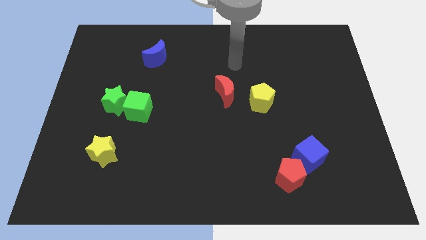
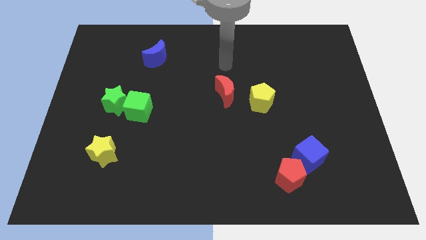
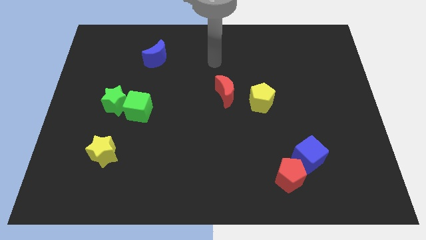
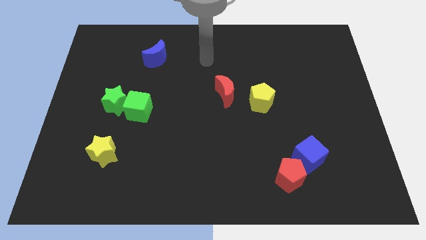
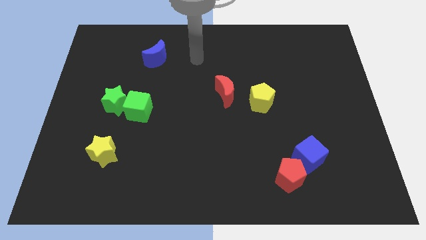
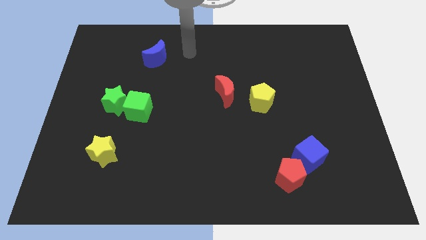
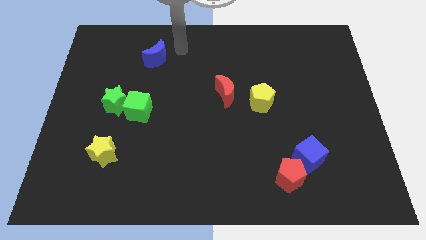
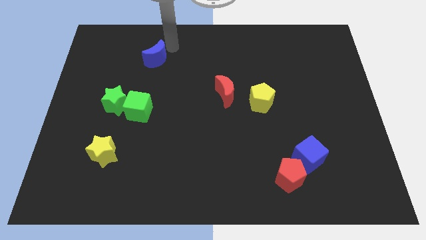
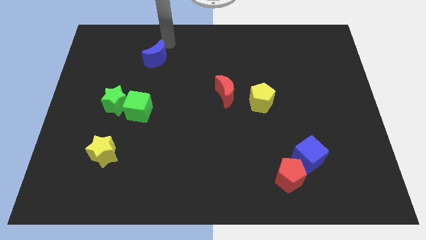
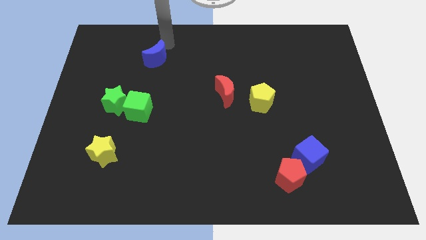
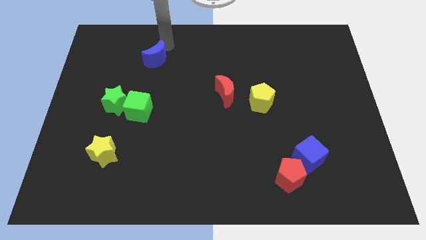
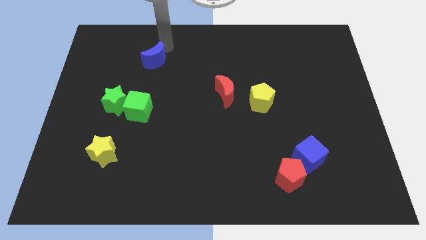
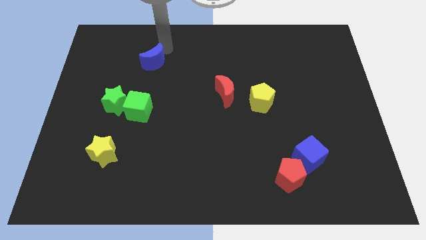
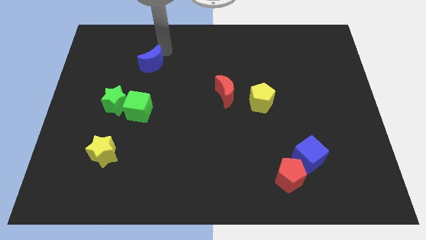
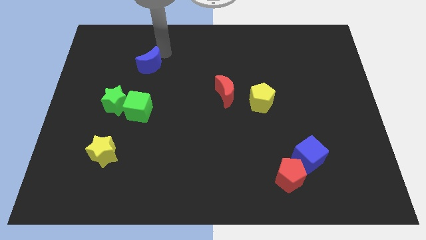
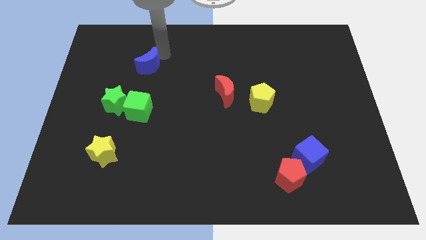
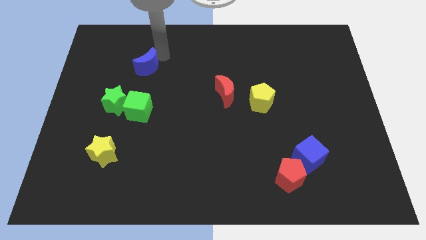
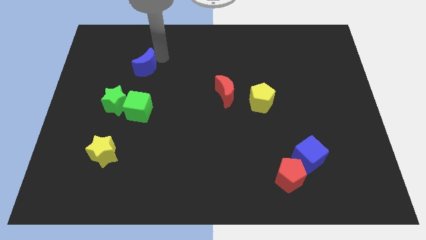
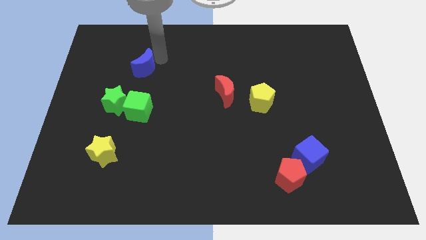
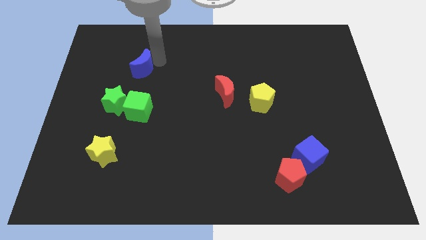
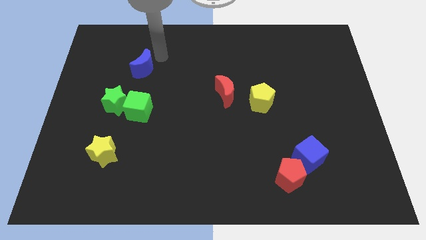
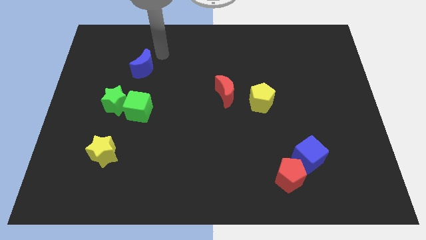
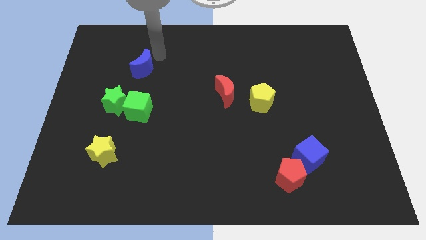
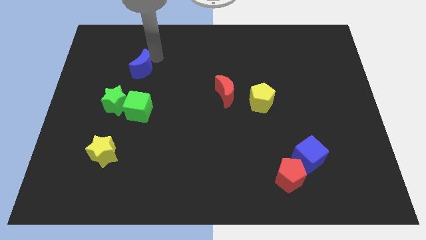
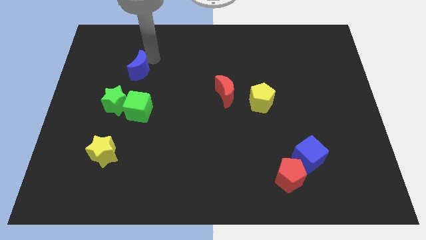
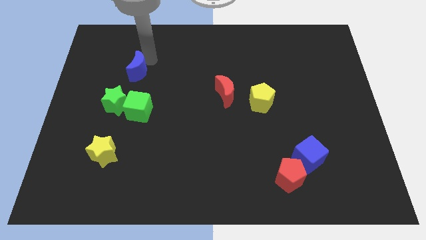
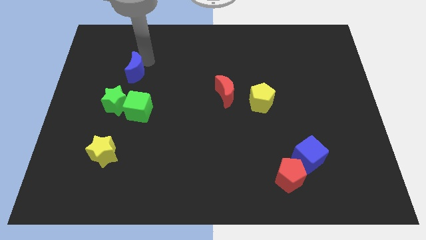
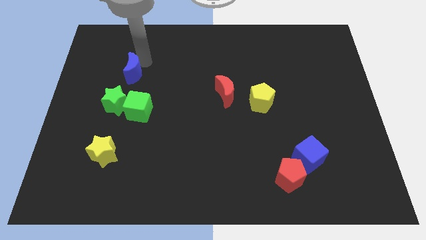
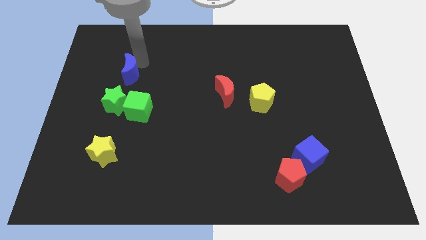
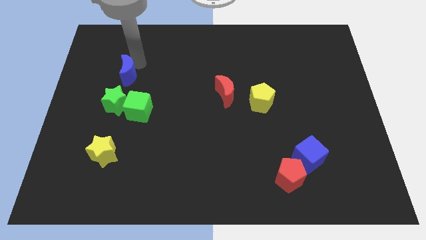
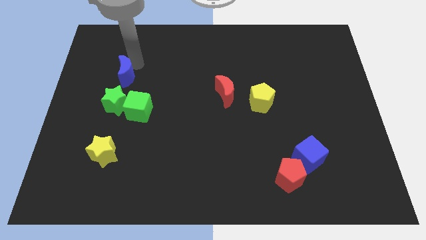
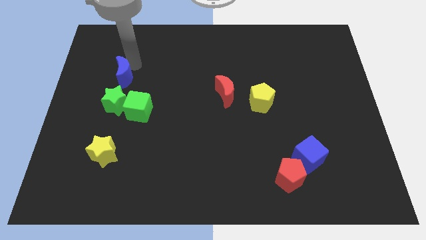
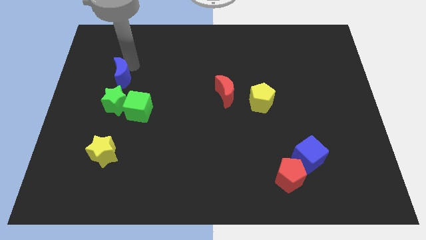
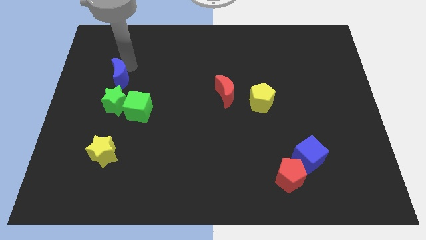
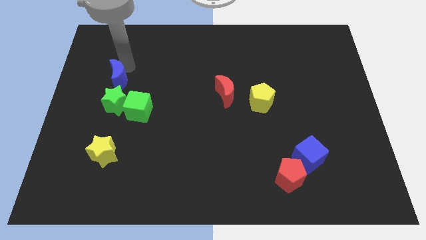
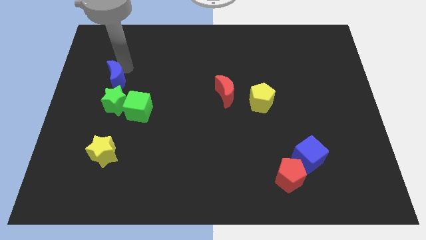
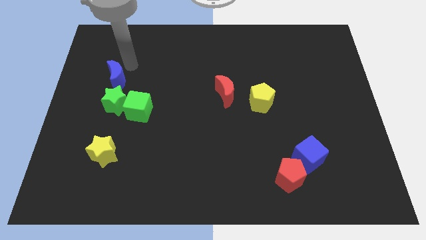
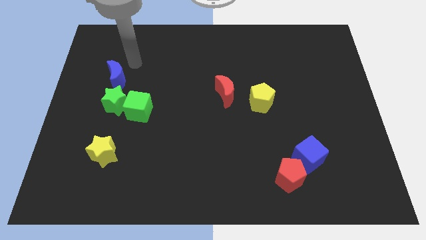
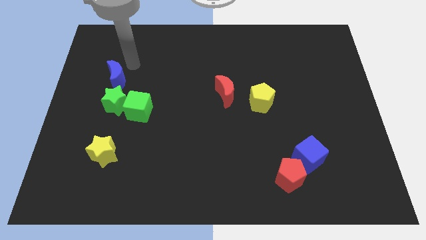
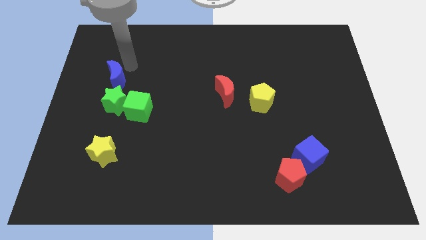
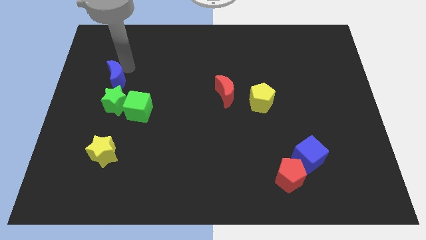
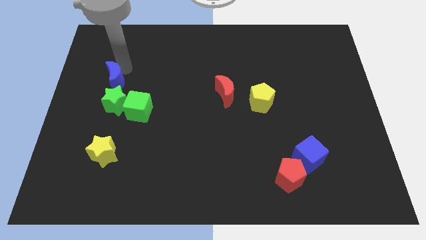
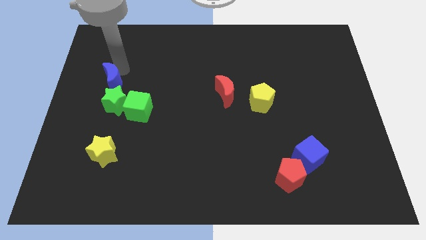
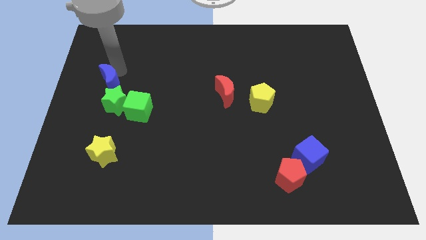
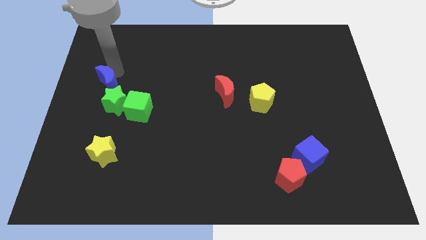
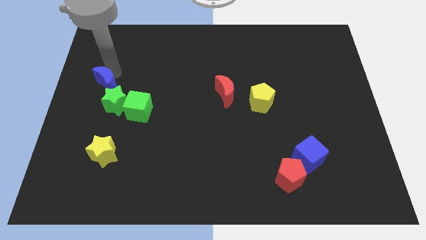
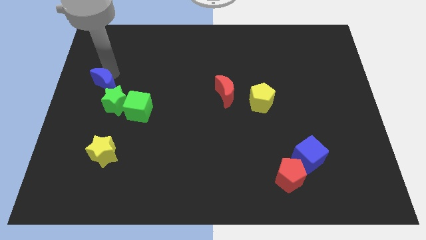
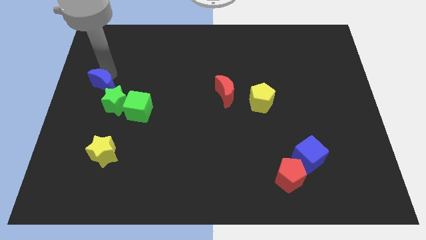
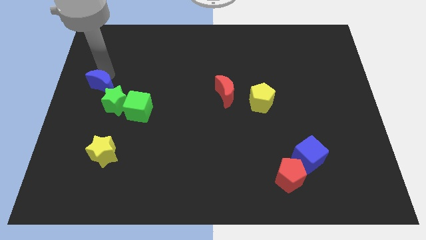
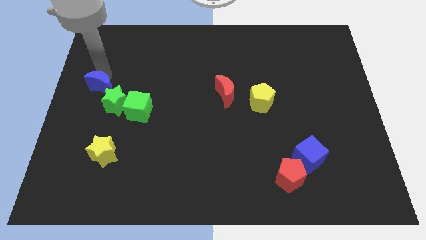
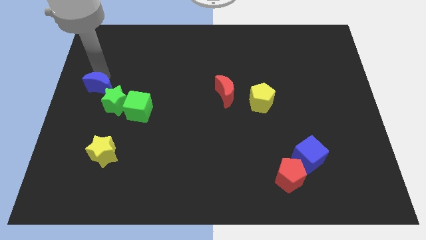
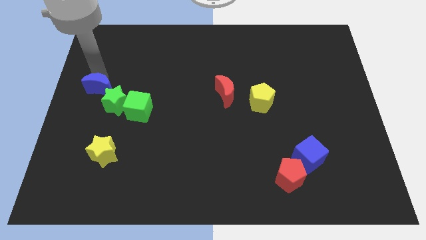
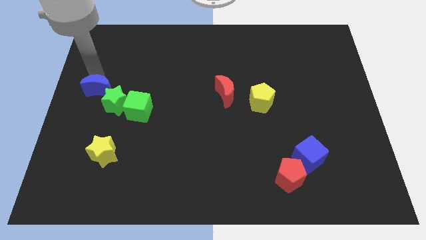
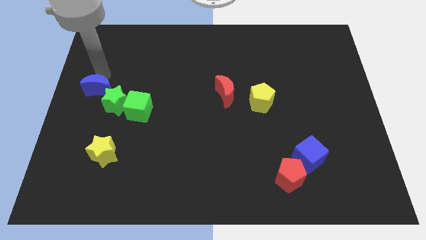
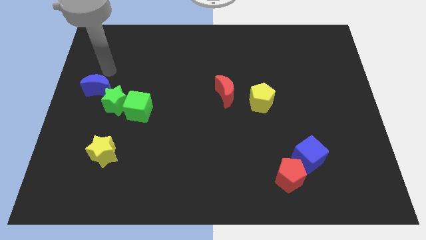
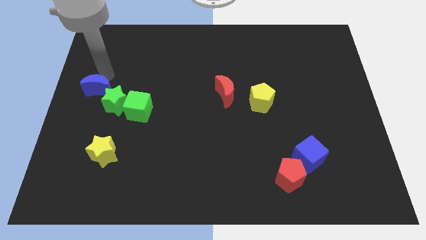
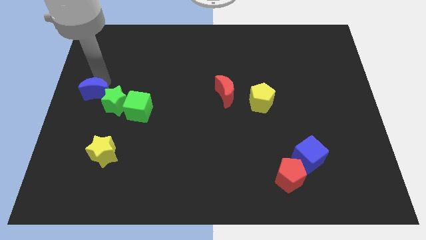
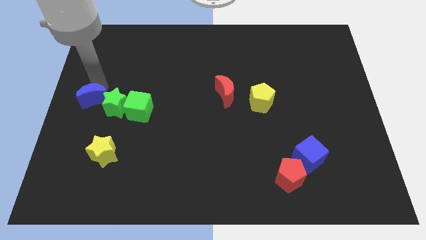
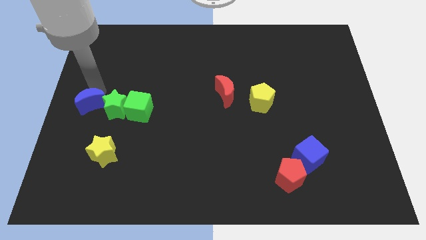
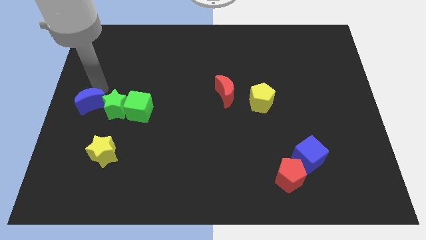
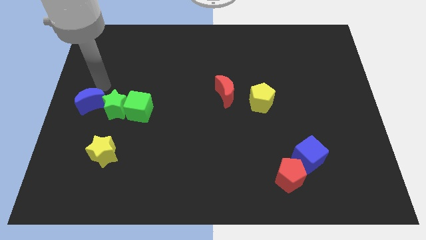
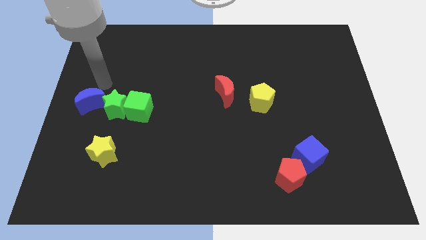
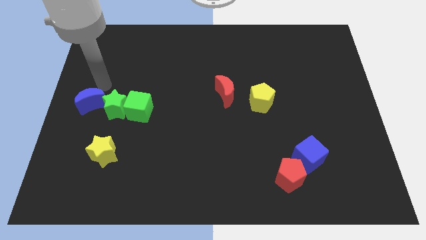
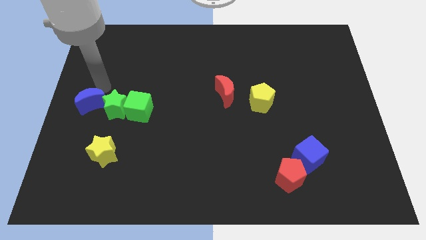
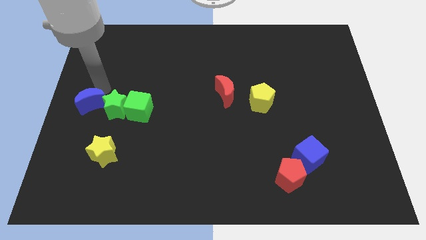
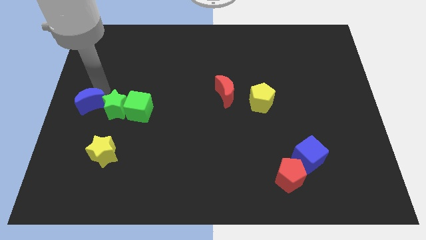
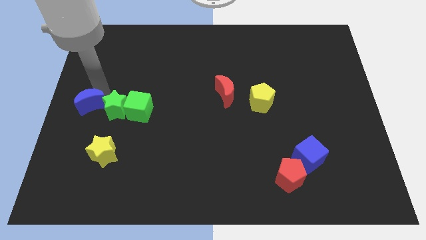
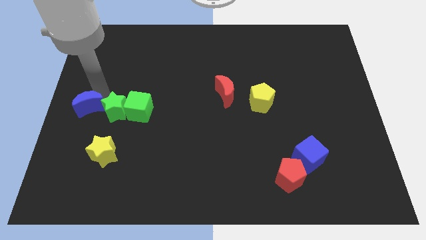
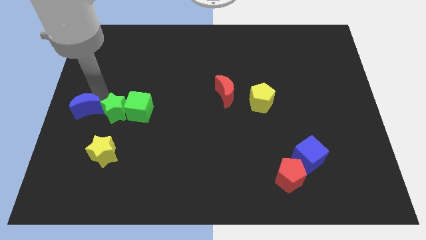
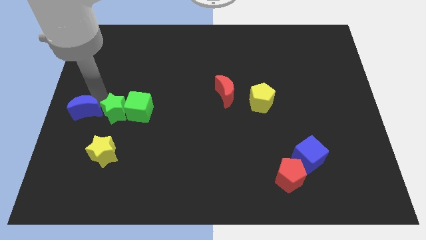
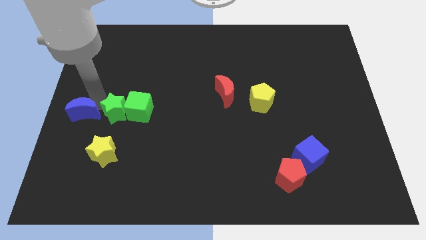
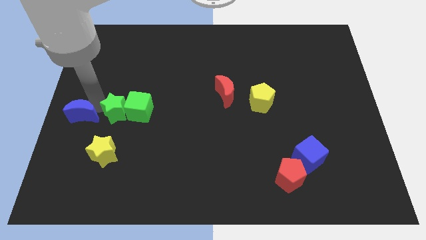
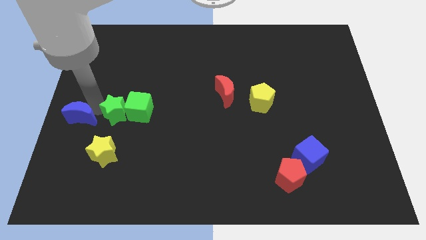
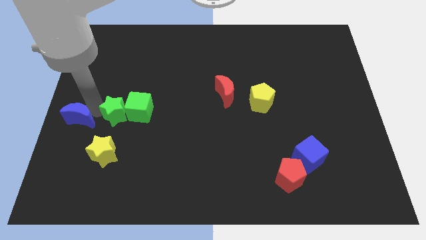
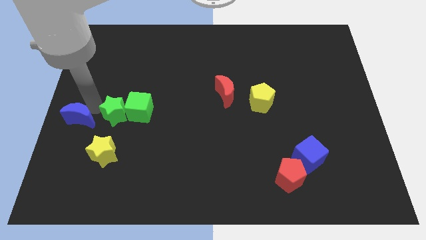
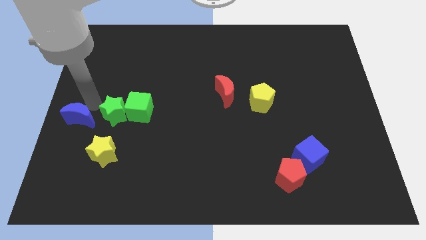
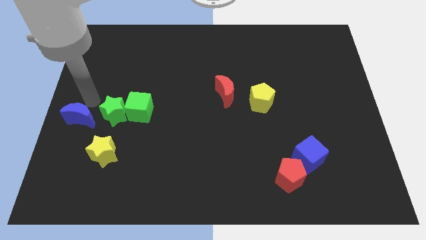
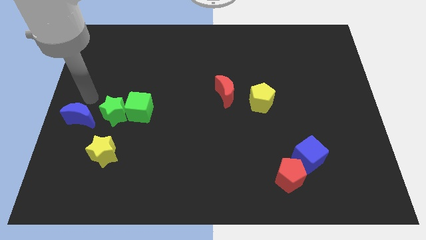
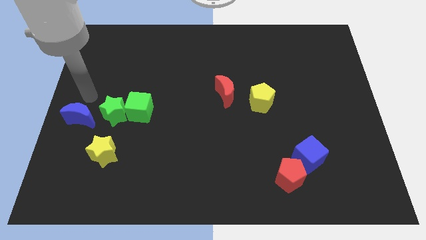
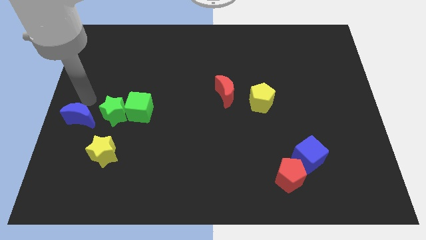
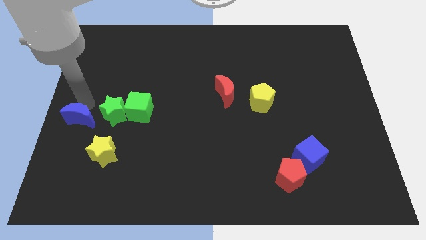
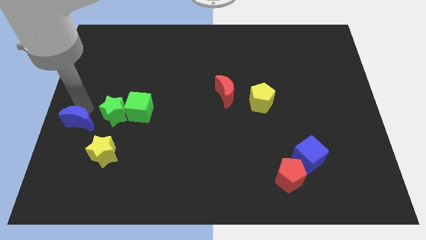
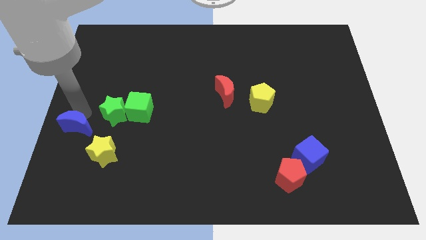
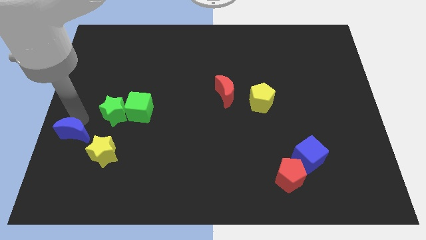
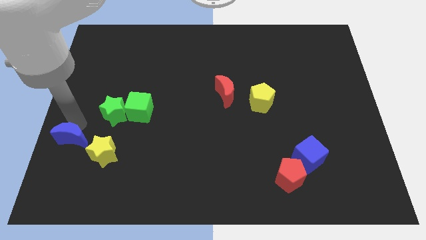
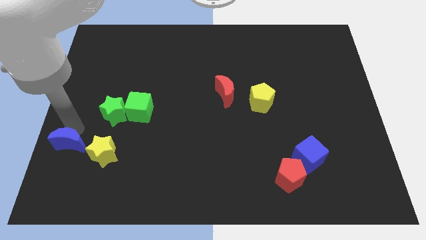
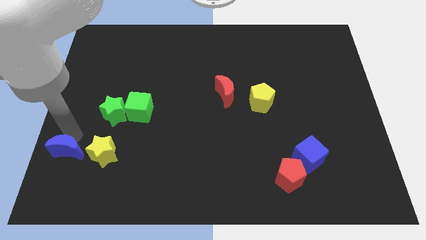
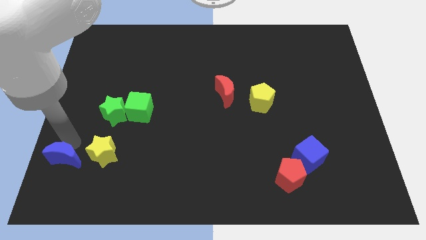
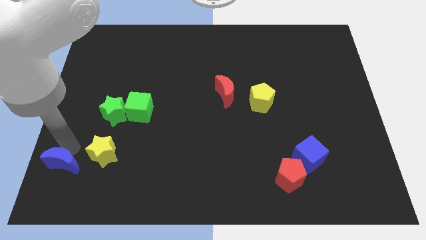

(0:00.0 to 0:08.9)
put the blue moon to the bottom left corner
